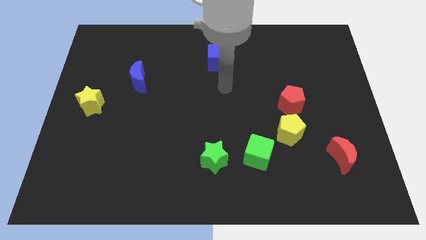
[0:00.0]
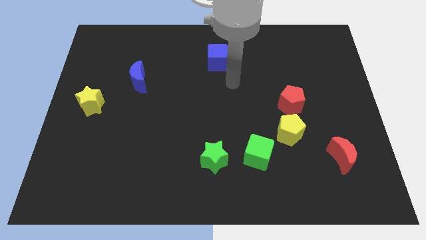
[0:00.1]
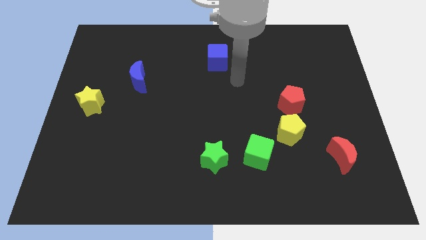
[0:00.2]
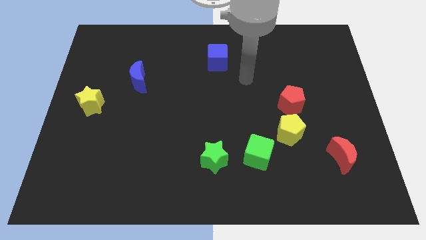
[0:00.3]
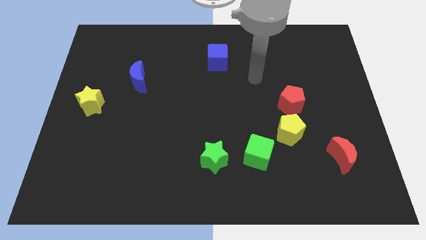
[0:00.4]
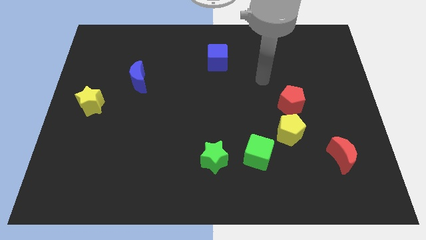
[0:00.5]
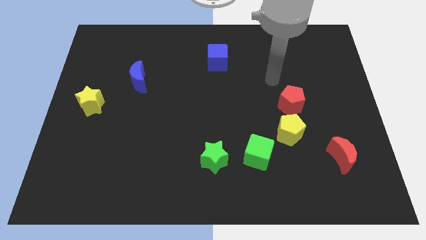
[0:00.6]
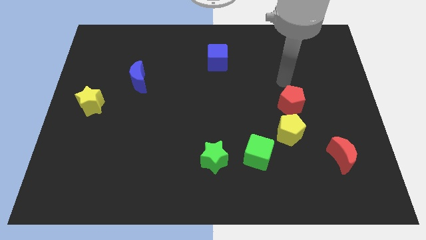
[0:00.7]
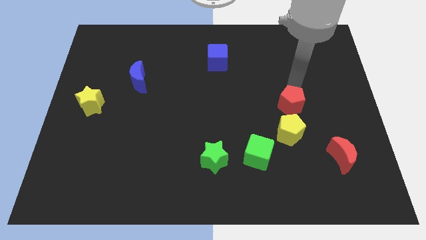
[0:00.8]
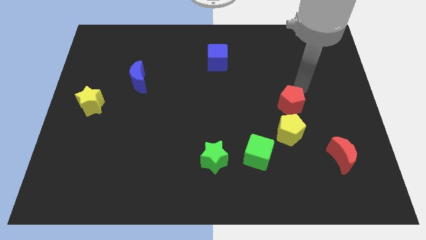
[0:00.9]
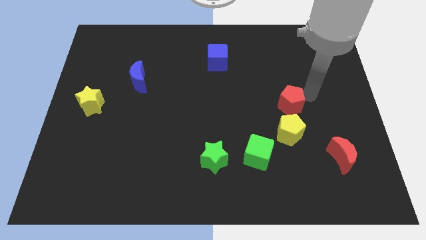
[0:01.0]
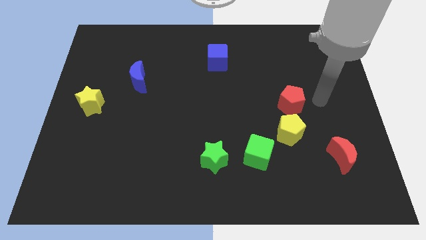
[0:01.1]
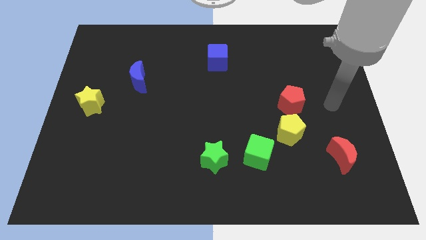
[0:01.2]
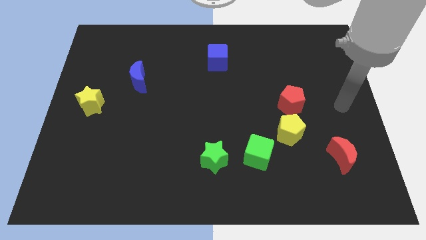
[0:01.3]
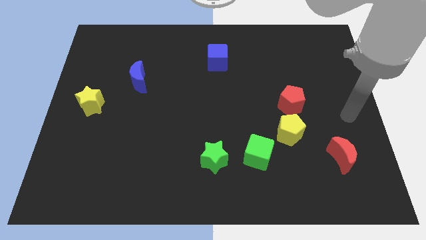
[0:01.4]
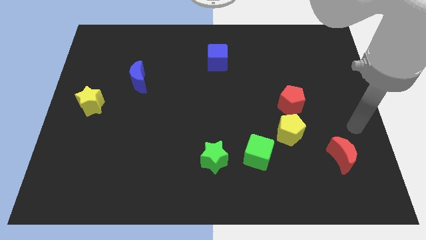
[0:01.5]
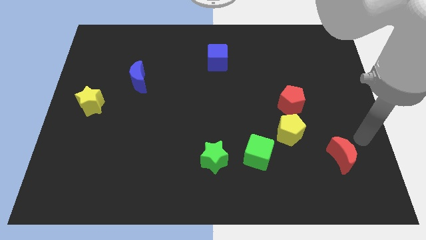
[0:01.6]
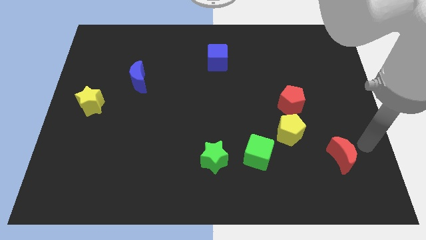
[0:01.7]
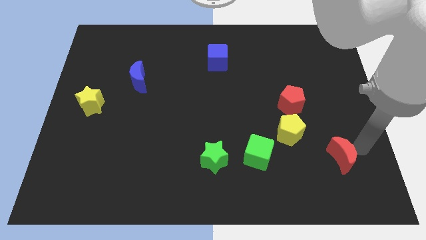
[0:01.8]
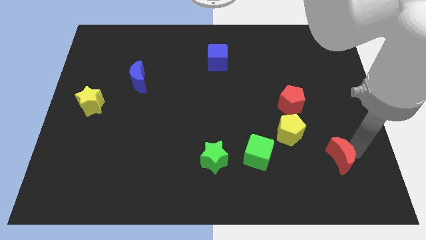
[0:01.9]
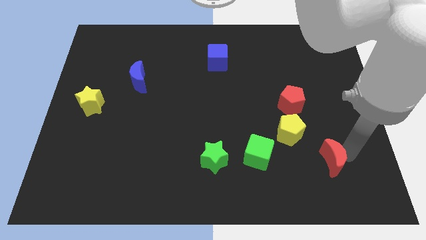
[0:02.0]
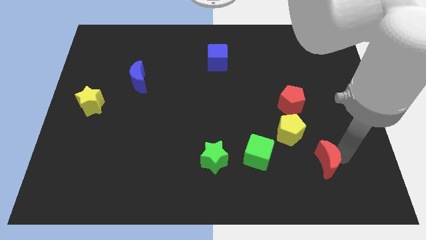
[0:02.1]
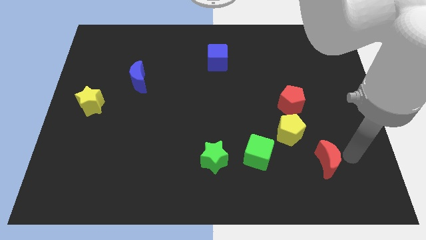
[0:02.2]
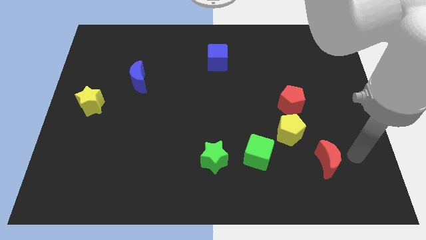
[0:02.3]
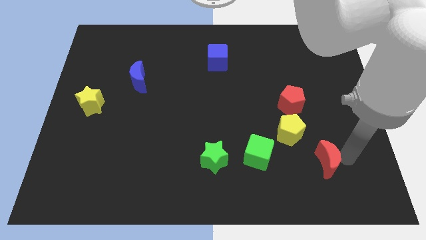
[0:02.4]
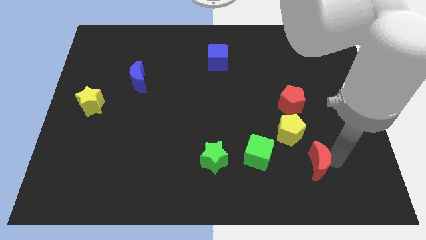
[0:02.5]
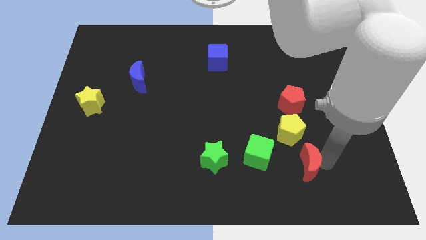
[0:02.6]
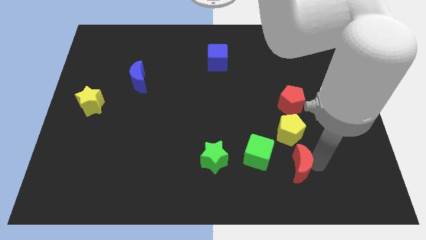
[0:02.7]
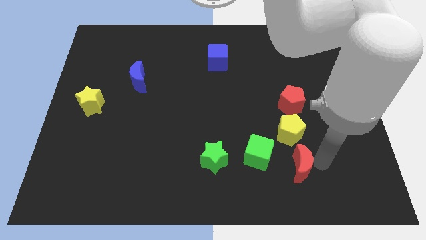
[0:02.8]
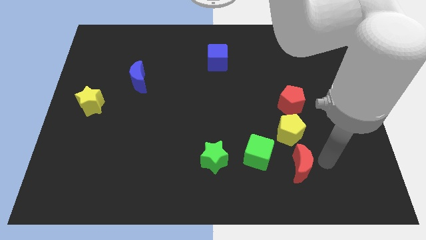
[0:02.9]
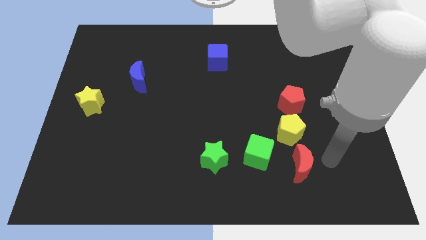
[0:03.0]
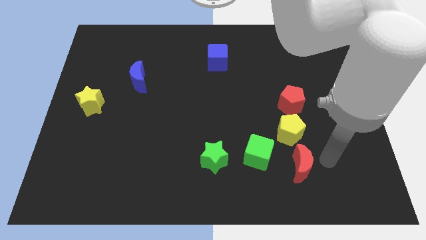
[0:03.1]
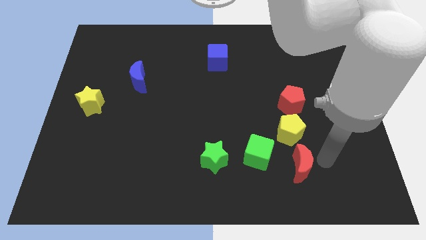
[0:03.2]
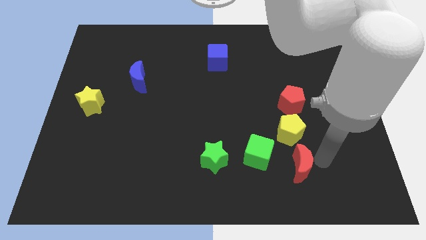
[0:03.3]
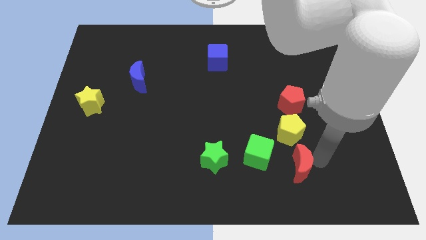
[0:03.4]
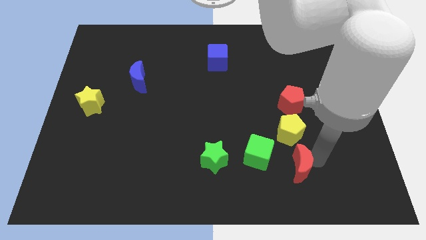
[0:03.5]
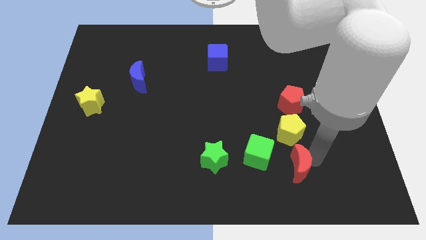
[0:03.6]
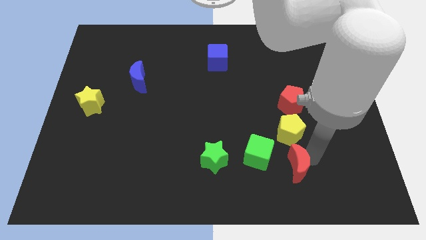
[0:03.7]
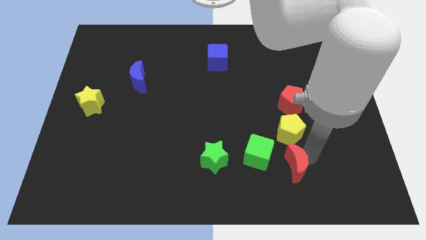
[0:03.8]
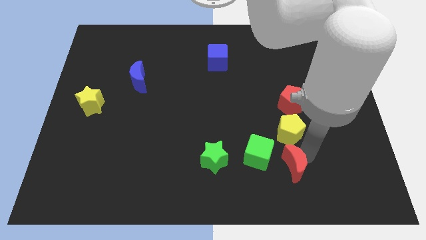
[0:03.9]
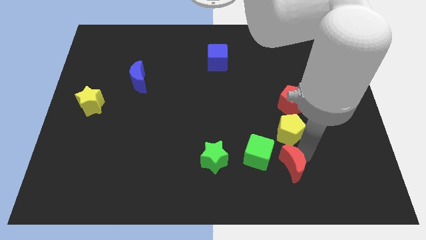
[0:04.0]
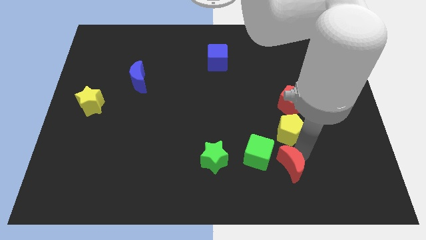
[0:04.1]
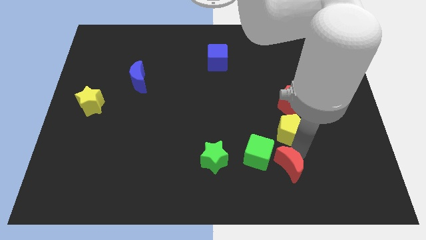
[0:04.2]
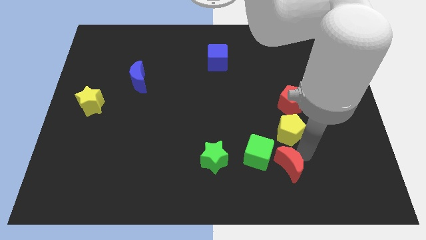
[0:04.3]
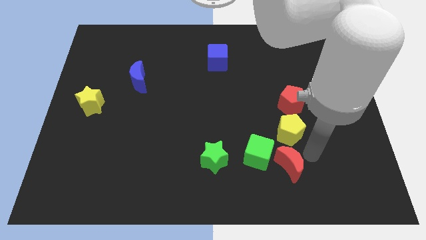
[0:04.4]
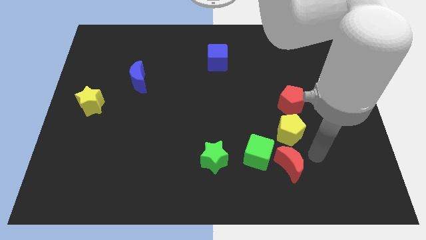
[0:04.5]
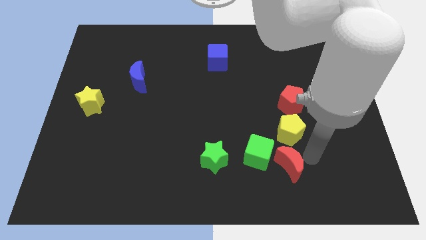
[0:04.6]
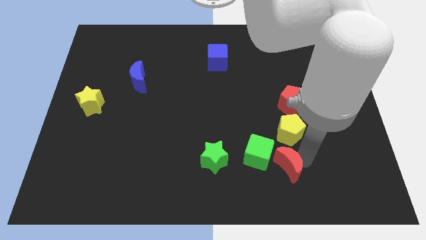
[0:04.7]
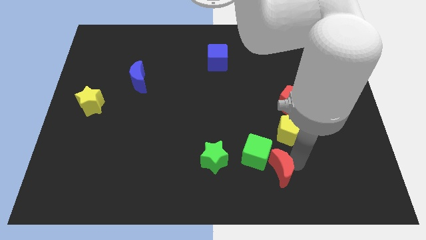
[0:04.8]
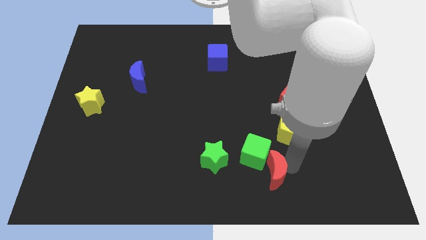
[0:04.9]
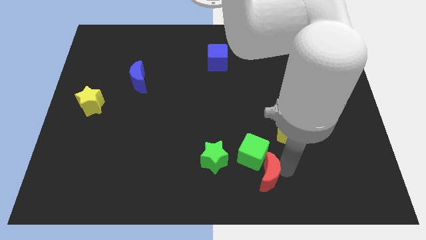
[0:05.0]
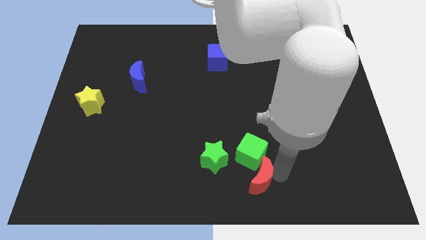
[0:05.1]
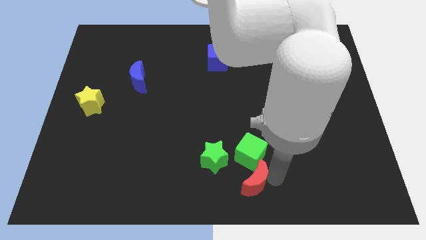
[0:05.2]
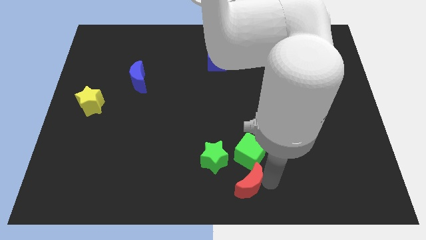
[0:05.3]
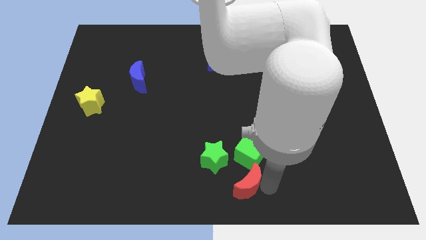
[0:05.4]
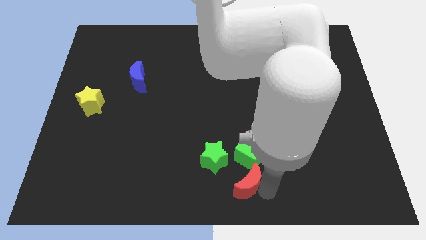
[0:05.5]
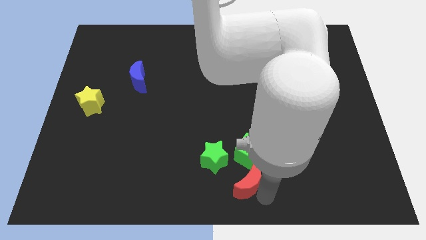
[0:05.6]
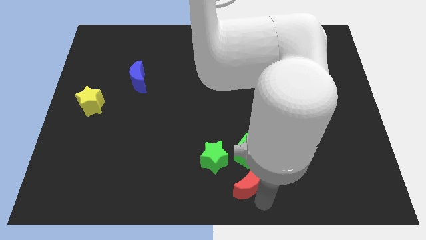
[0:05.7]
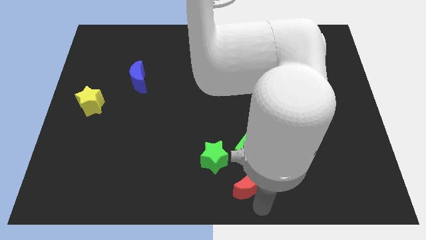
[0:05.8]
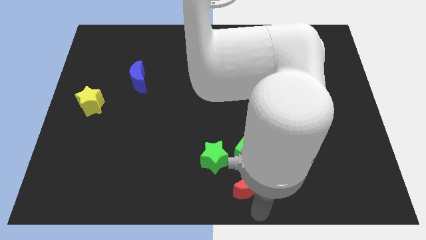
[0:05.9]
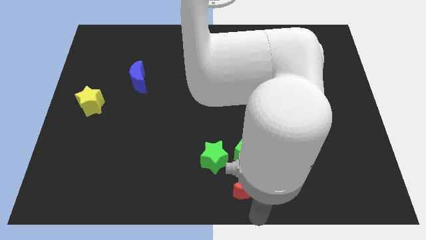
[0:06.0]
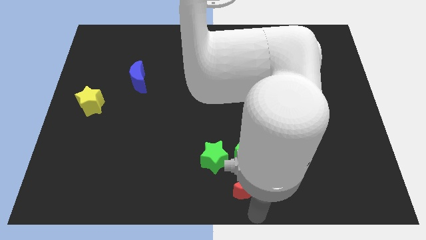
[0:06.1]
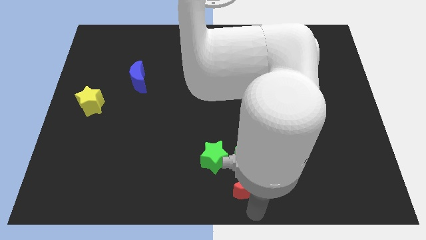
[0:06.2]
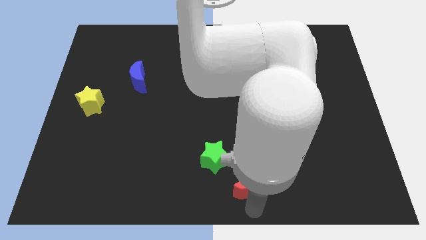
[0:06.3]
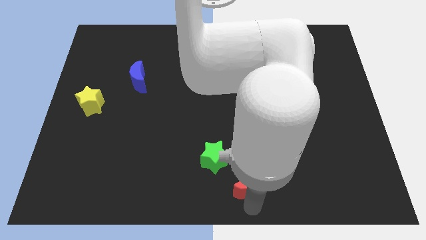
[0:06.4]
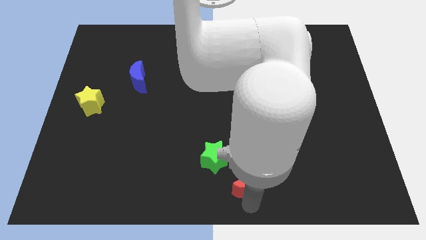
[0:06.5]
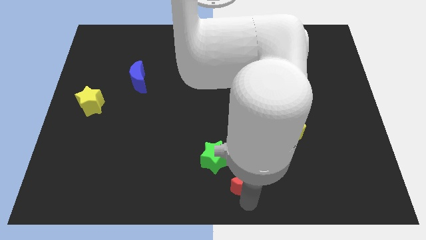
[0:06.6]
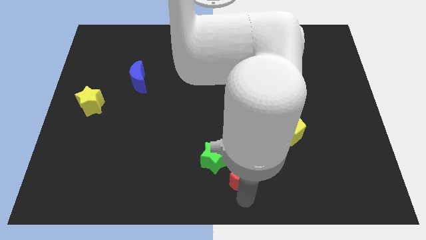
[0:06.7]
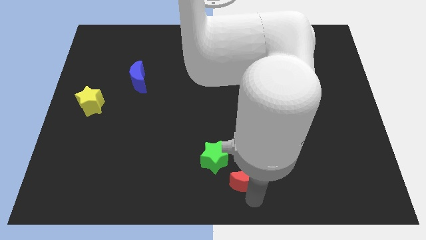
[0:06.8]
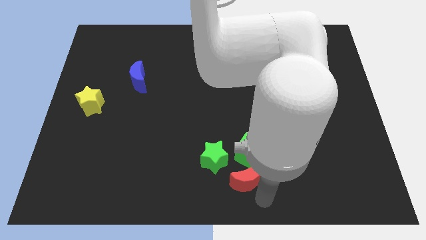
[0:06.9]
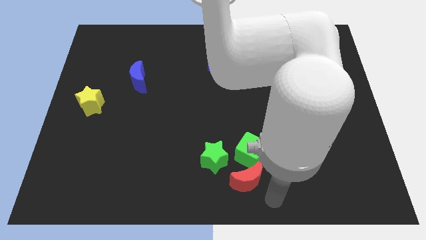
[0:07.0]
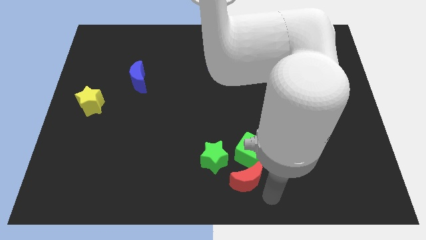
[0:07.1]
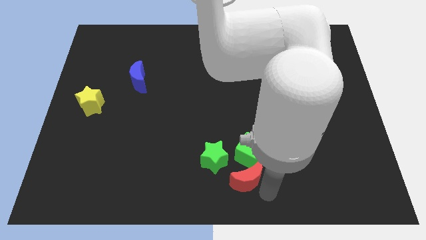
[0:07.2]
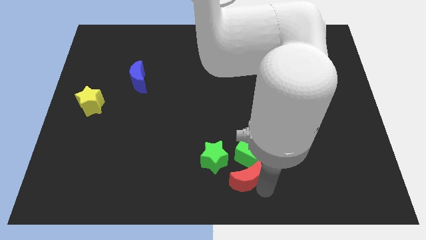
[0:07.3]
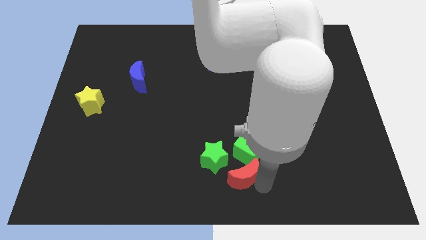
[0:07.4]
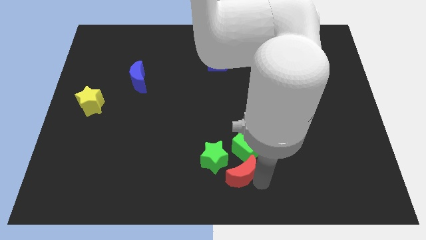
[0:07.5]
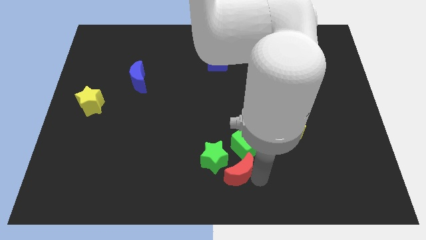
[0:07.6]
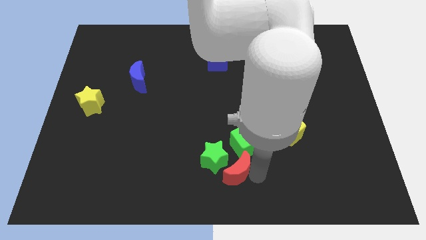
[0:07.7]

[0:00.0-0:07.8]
put the red moon towards the green star
